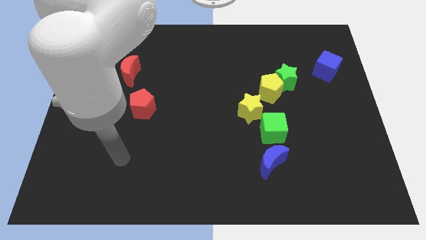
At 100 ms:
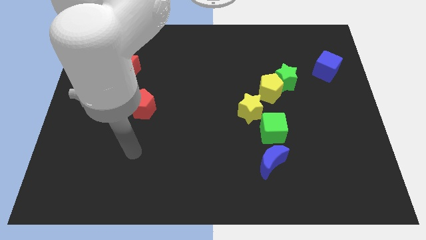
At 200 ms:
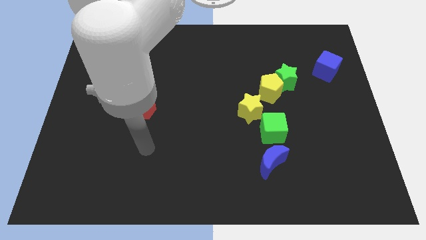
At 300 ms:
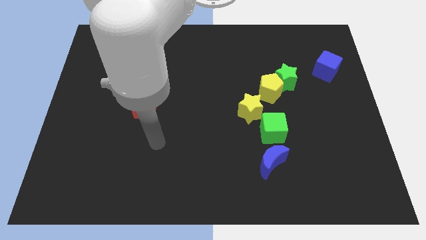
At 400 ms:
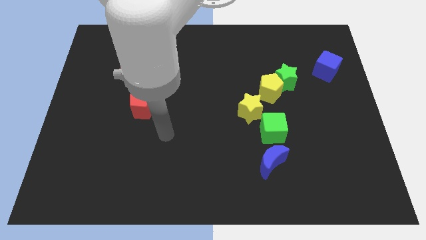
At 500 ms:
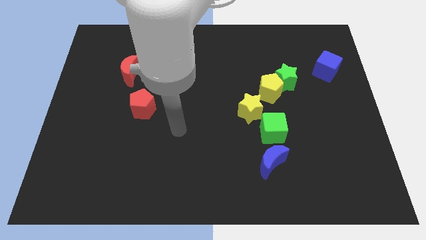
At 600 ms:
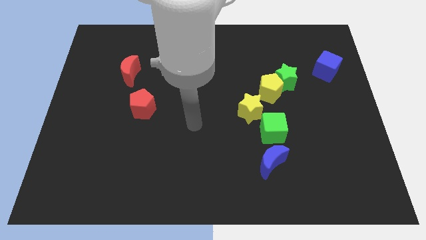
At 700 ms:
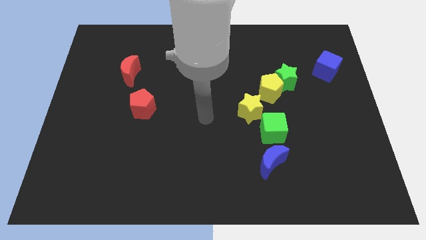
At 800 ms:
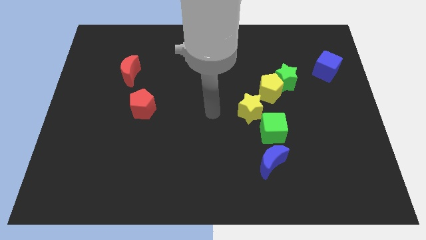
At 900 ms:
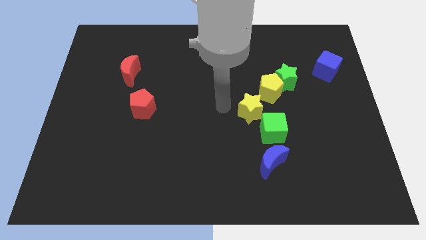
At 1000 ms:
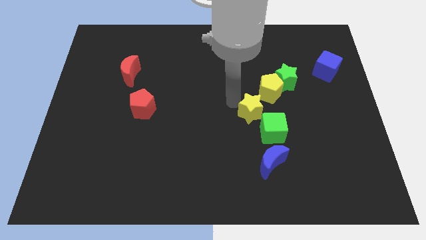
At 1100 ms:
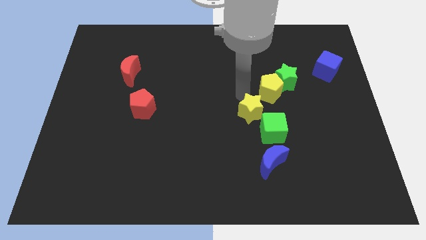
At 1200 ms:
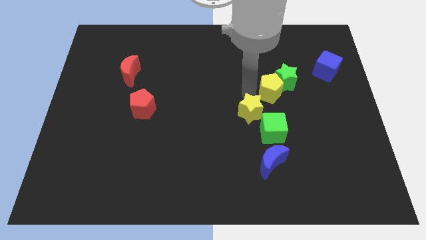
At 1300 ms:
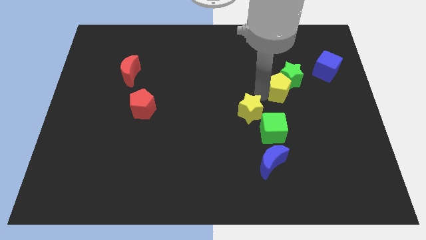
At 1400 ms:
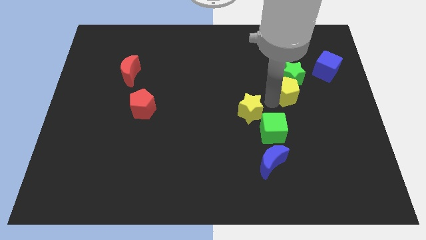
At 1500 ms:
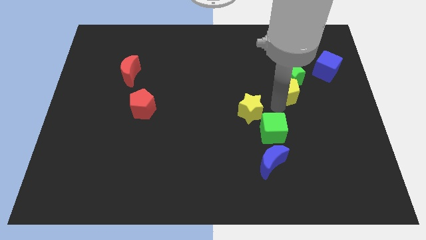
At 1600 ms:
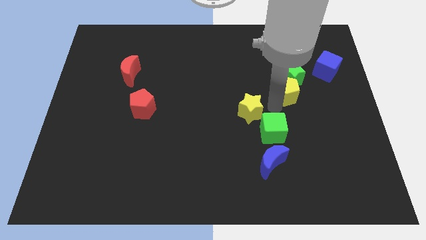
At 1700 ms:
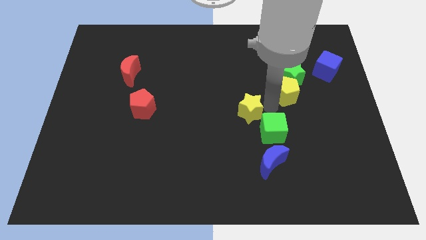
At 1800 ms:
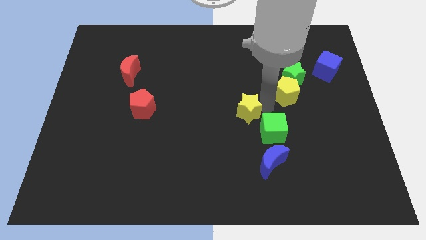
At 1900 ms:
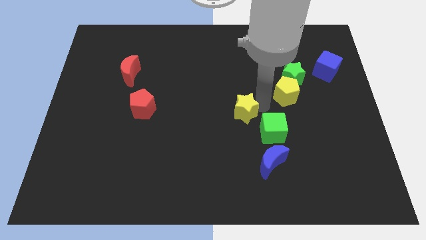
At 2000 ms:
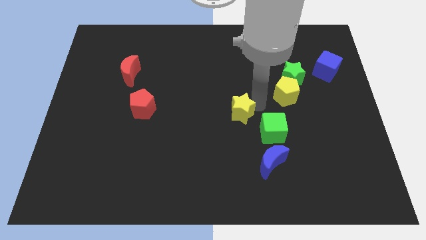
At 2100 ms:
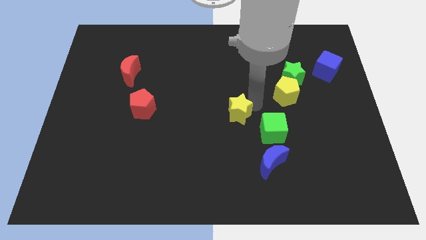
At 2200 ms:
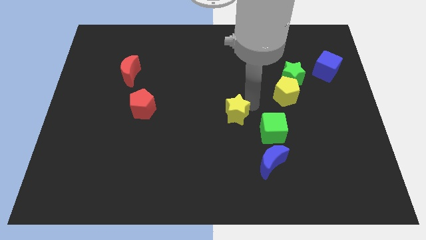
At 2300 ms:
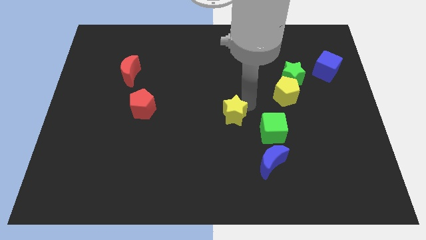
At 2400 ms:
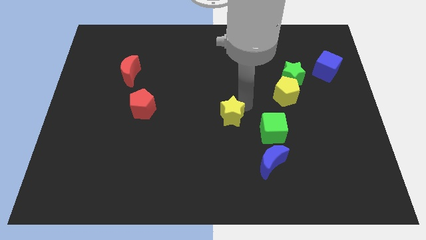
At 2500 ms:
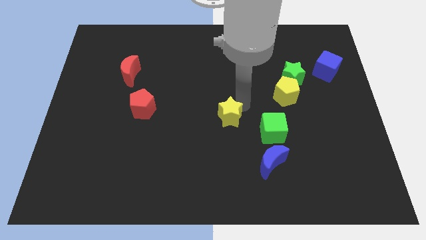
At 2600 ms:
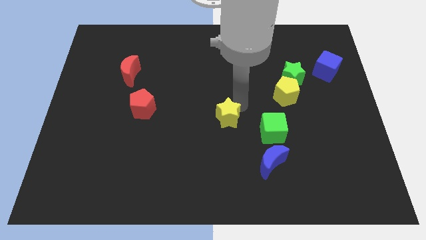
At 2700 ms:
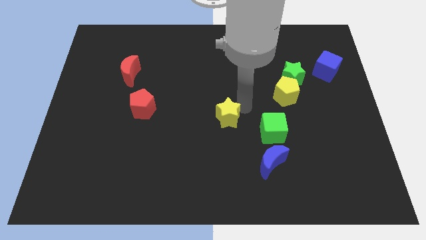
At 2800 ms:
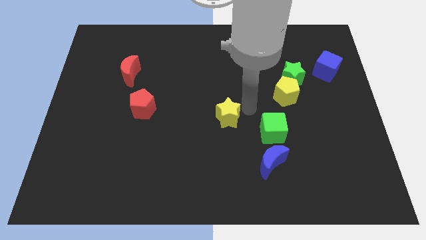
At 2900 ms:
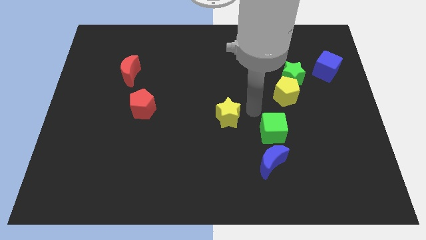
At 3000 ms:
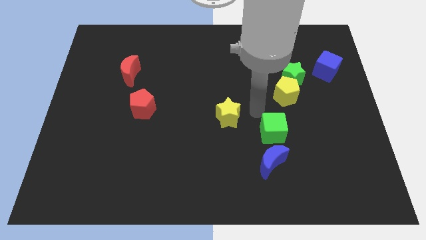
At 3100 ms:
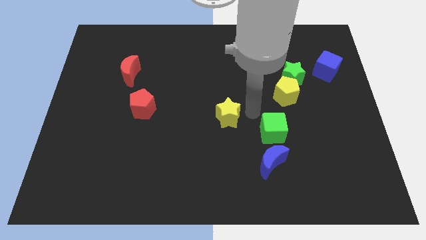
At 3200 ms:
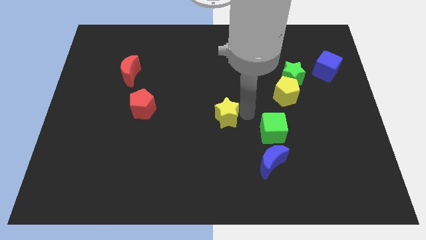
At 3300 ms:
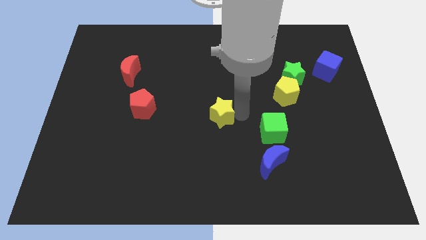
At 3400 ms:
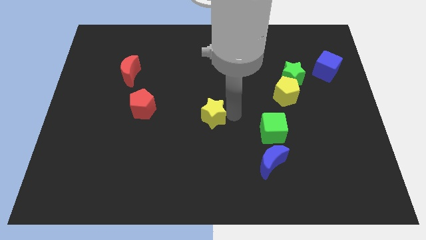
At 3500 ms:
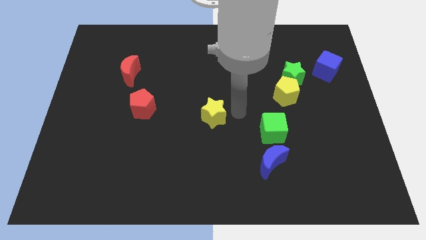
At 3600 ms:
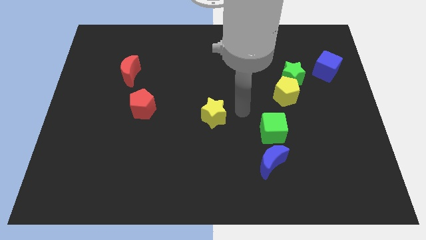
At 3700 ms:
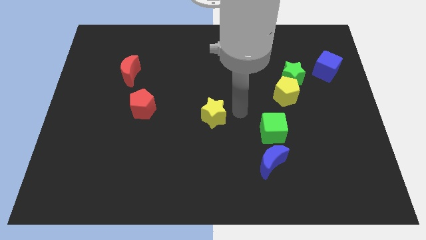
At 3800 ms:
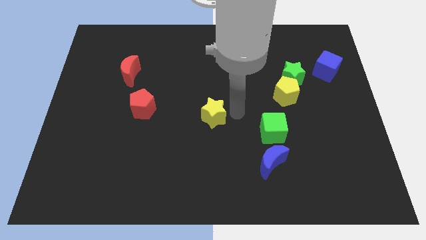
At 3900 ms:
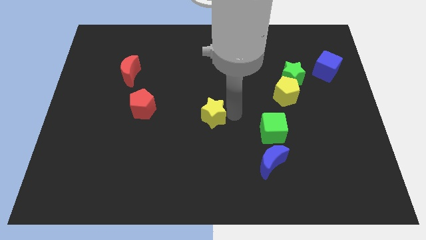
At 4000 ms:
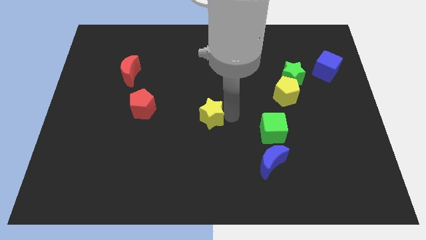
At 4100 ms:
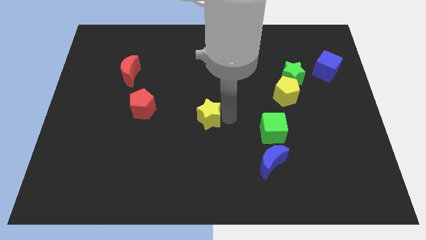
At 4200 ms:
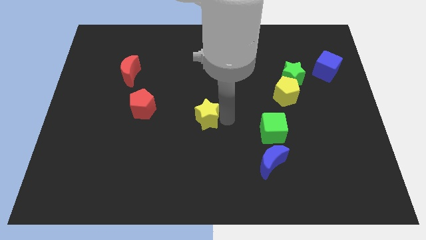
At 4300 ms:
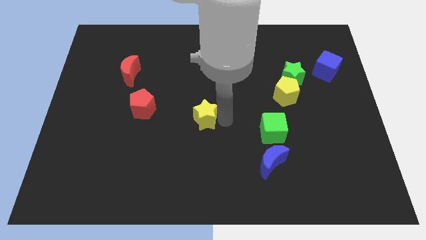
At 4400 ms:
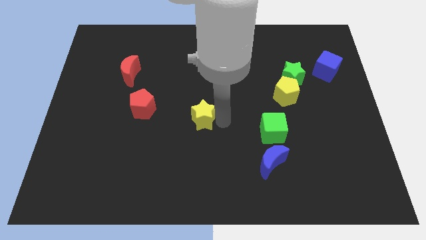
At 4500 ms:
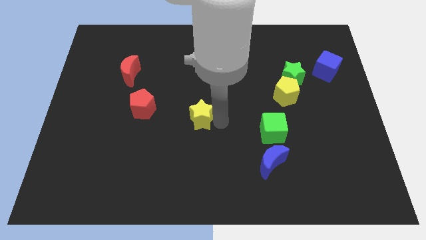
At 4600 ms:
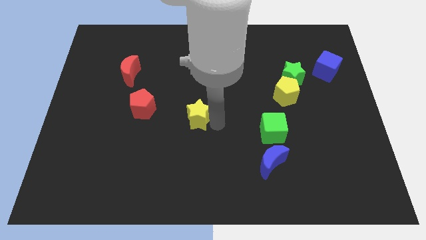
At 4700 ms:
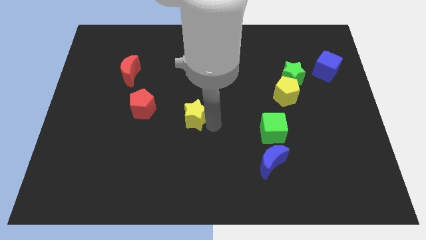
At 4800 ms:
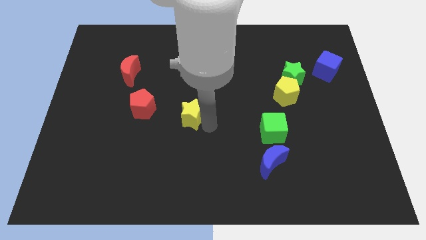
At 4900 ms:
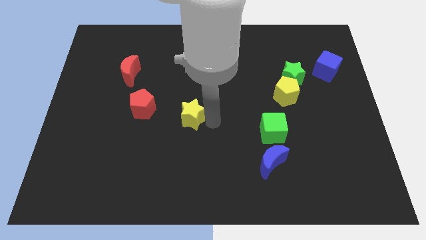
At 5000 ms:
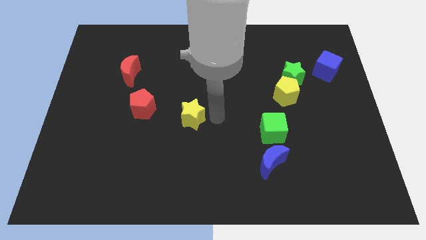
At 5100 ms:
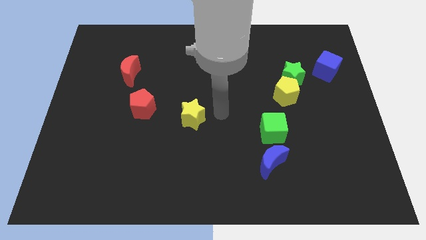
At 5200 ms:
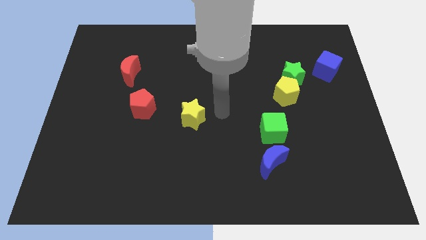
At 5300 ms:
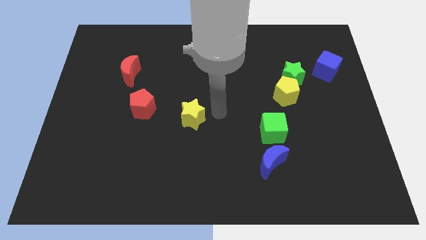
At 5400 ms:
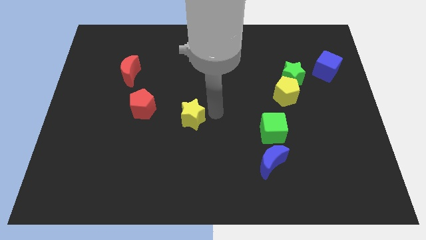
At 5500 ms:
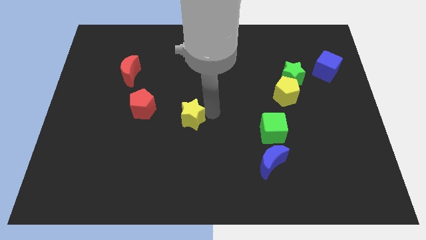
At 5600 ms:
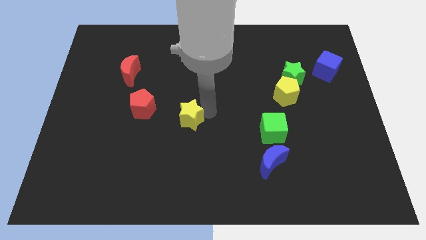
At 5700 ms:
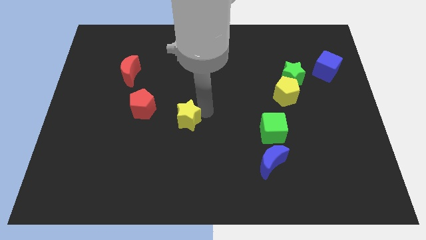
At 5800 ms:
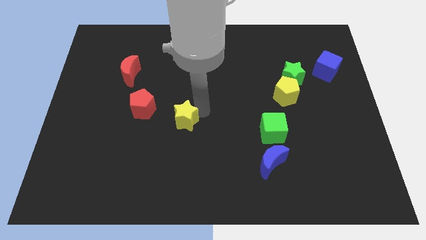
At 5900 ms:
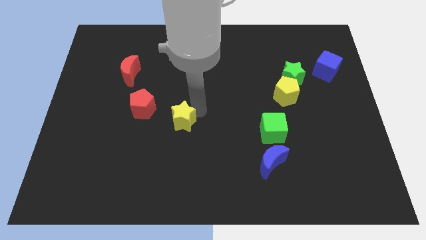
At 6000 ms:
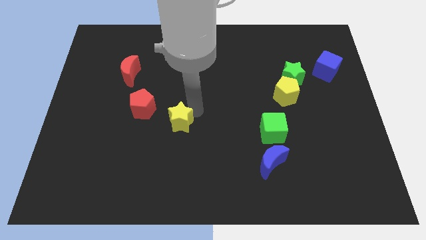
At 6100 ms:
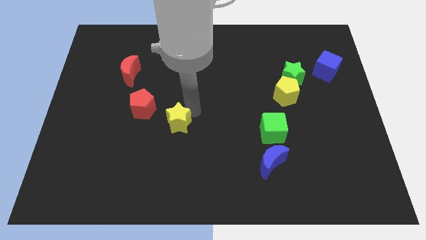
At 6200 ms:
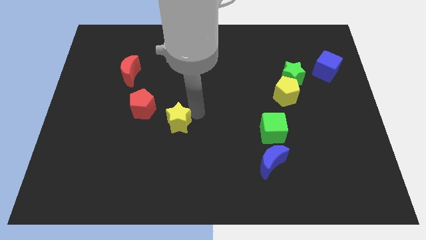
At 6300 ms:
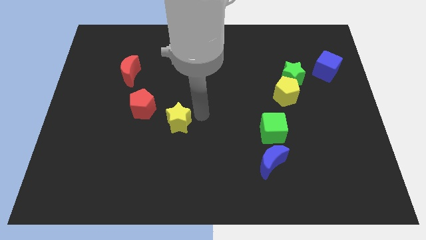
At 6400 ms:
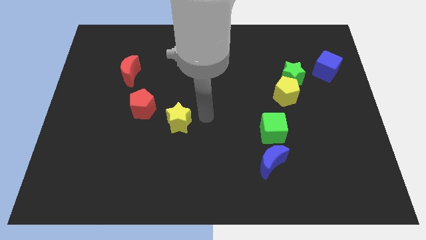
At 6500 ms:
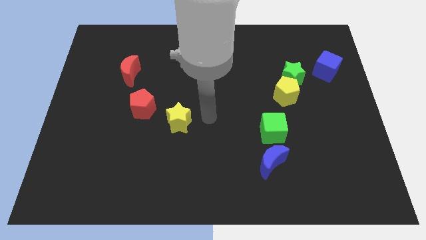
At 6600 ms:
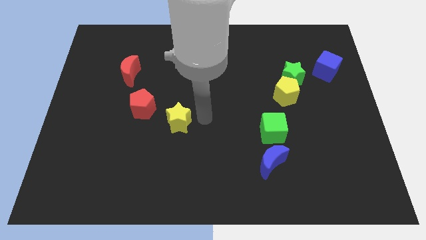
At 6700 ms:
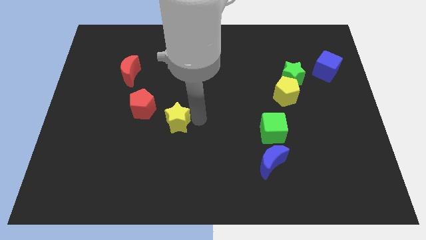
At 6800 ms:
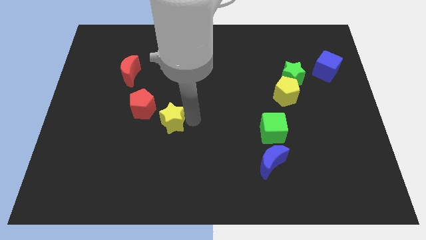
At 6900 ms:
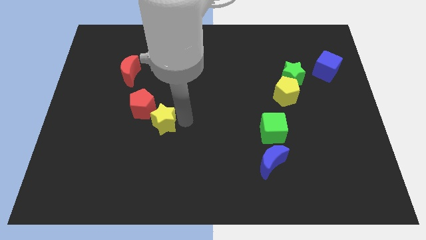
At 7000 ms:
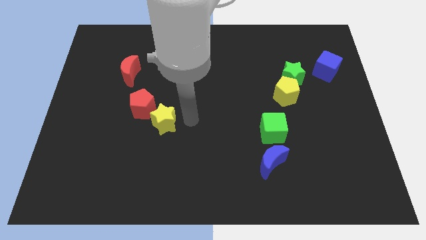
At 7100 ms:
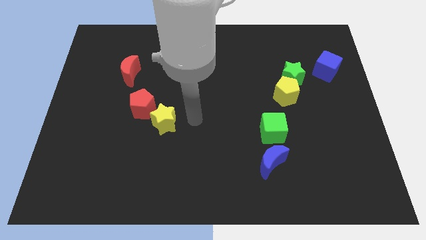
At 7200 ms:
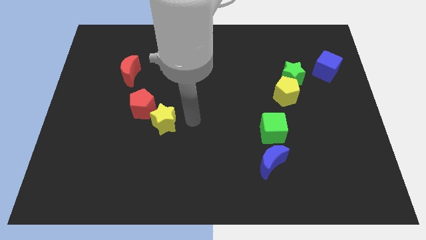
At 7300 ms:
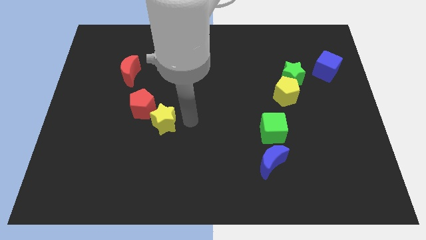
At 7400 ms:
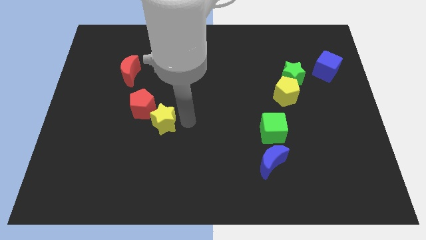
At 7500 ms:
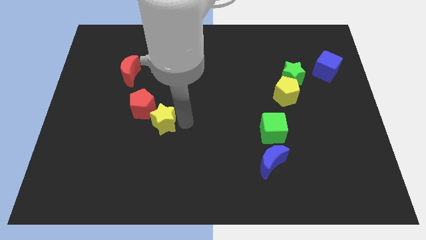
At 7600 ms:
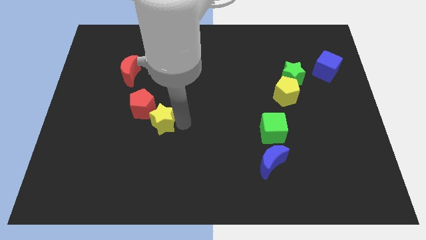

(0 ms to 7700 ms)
move the yellow star left

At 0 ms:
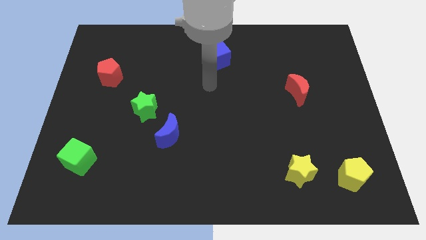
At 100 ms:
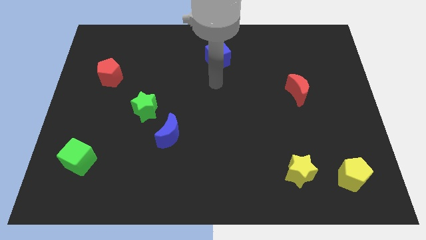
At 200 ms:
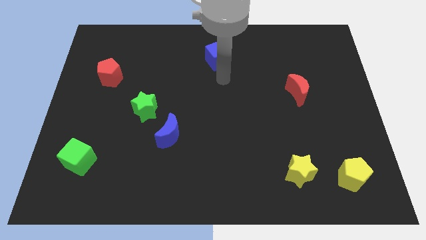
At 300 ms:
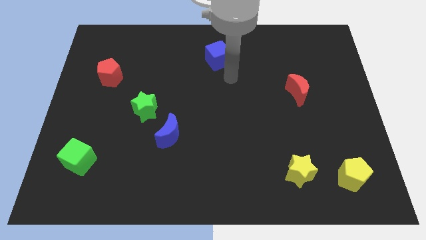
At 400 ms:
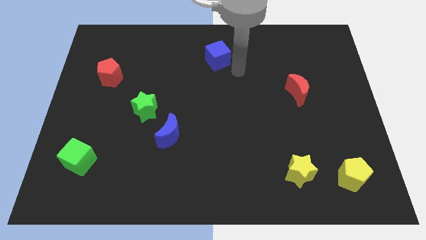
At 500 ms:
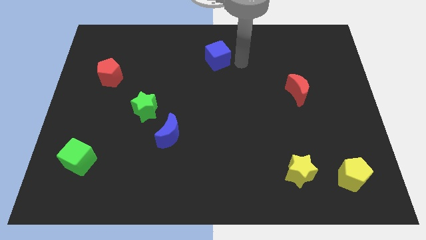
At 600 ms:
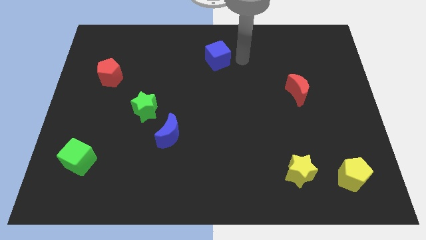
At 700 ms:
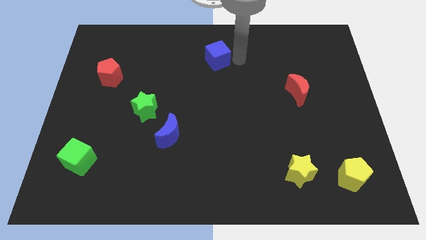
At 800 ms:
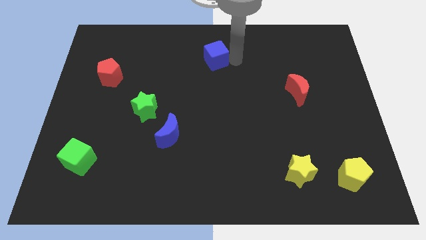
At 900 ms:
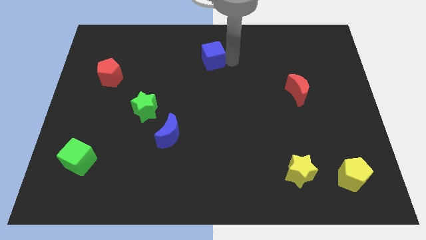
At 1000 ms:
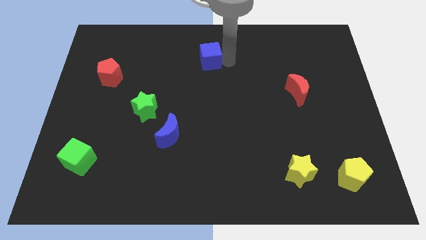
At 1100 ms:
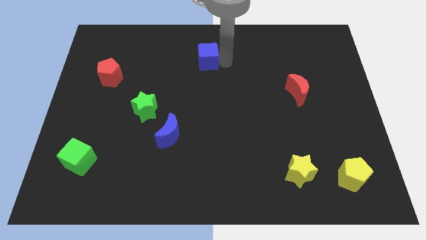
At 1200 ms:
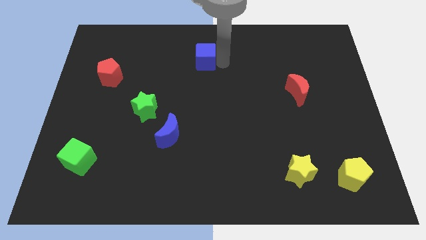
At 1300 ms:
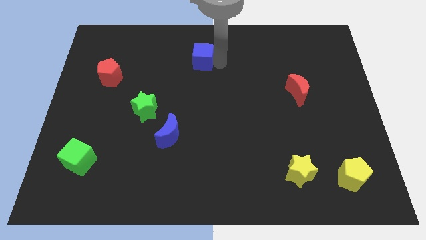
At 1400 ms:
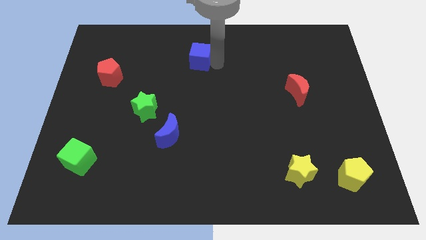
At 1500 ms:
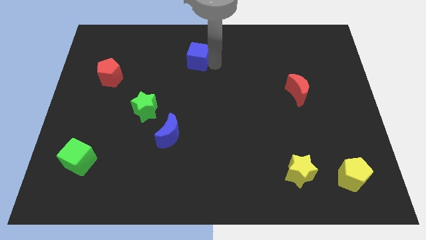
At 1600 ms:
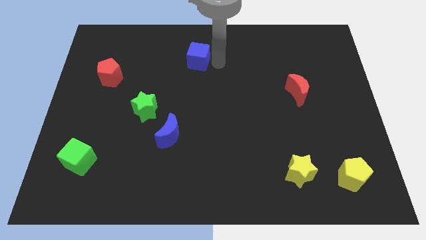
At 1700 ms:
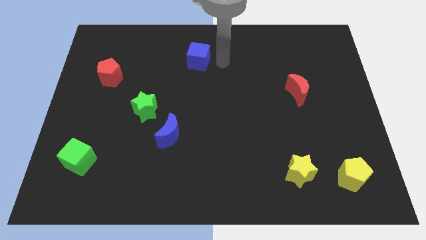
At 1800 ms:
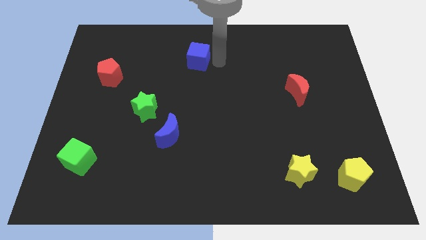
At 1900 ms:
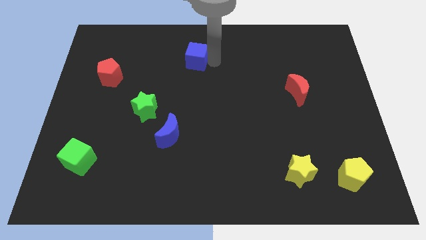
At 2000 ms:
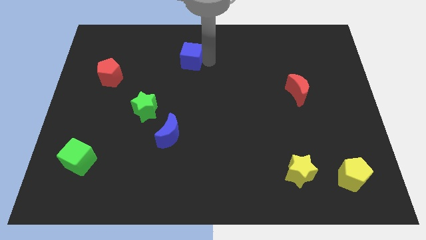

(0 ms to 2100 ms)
push the blue cube to the left slightly
